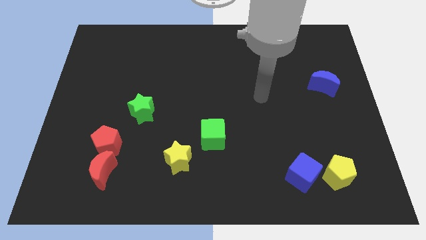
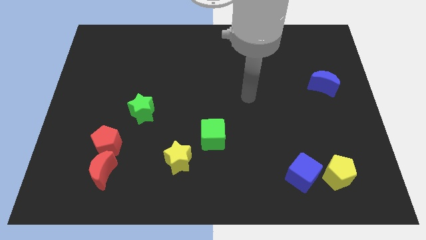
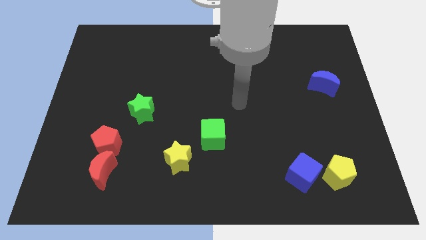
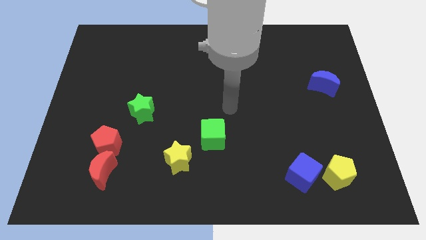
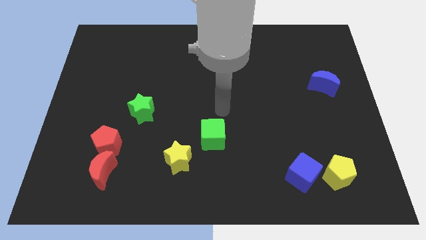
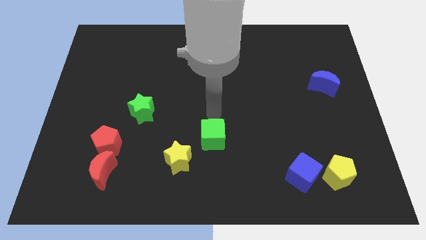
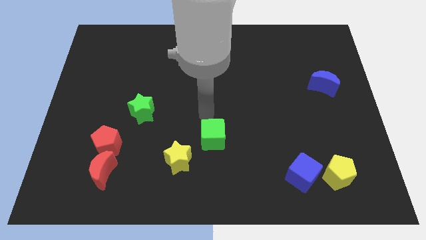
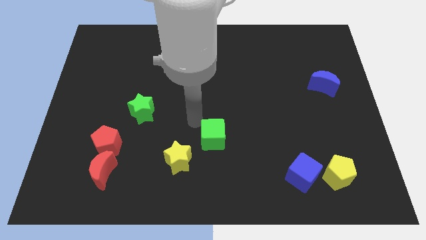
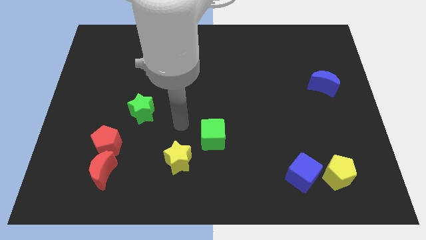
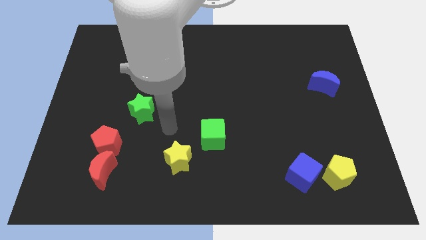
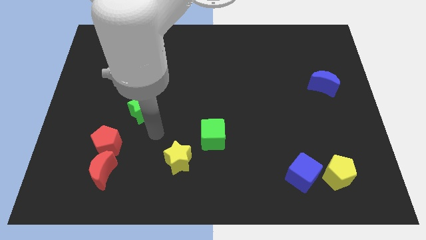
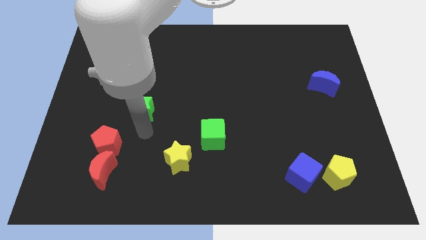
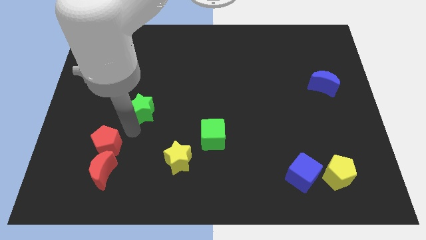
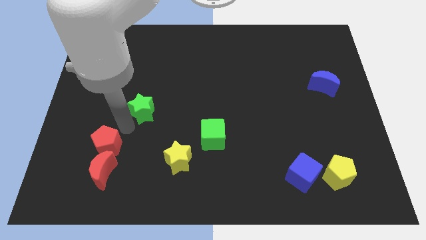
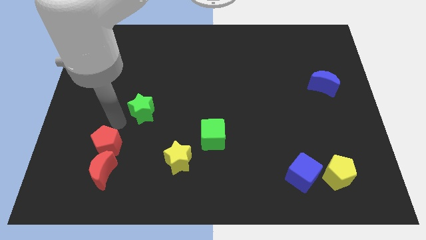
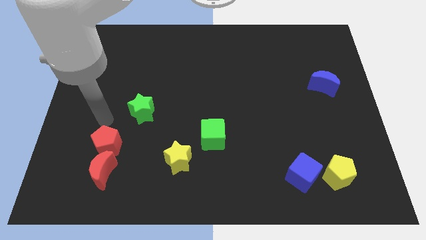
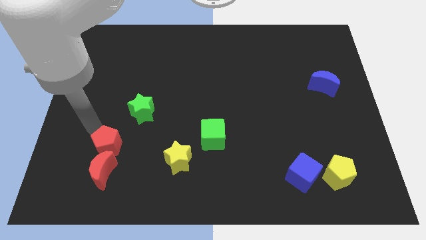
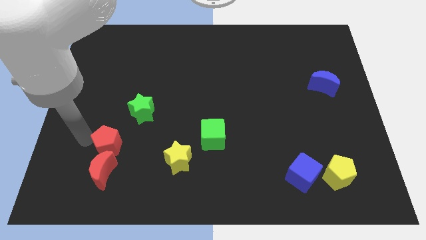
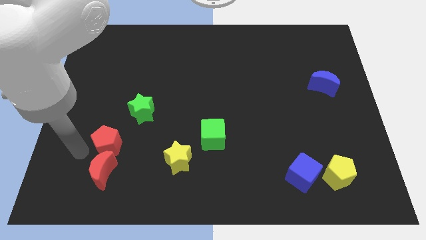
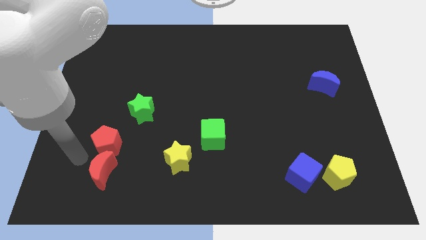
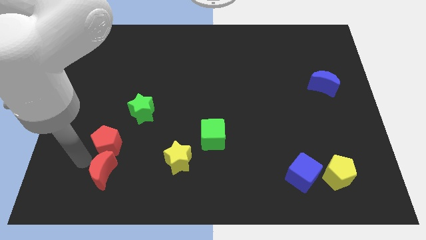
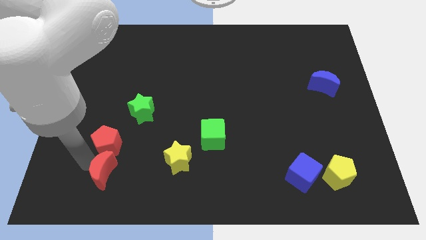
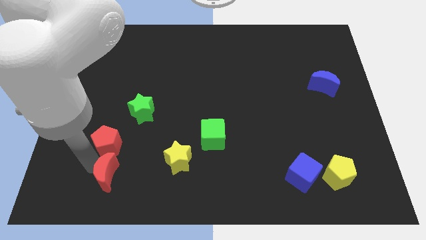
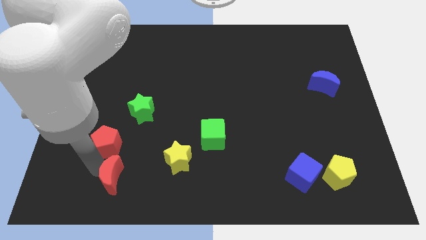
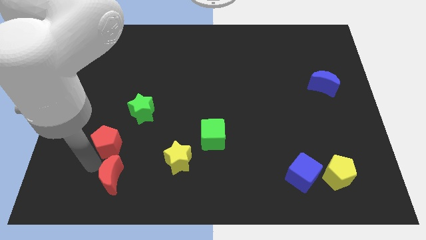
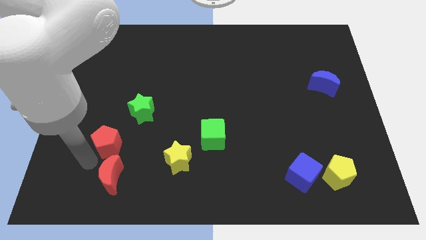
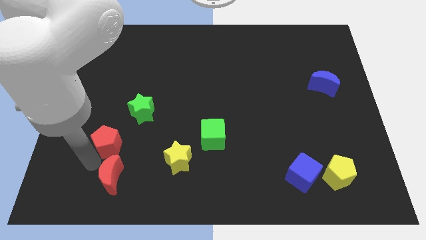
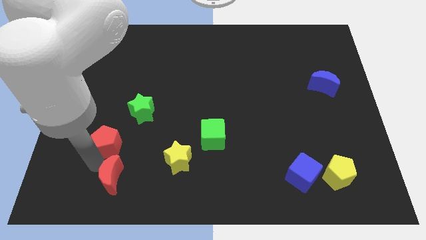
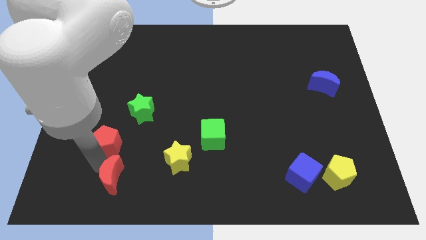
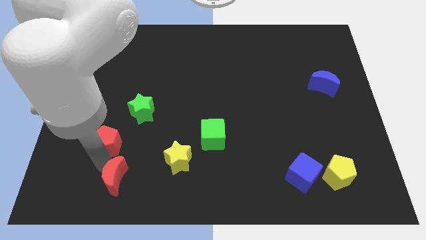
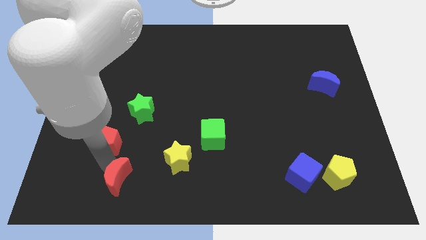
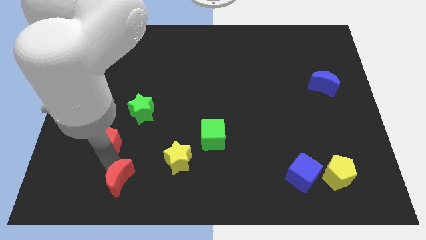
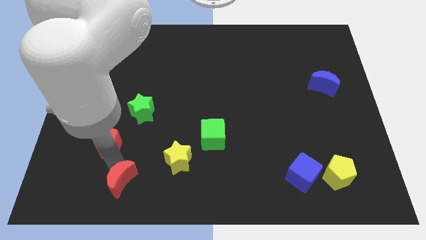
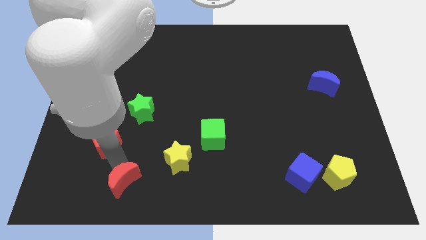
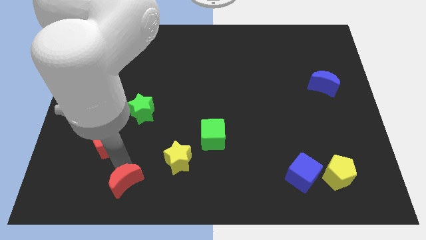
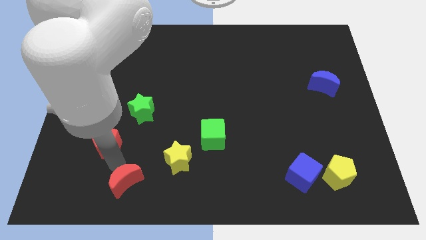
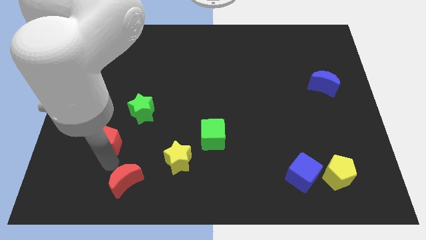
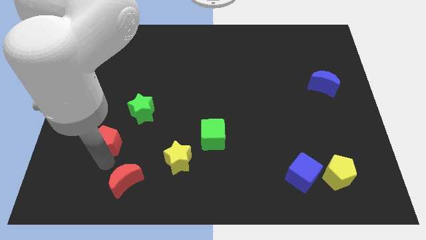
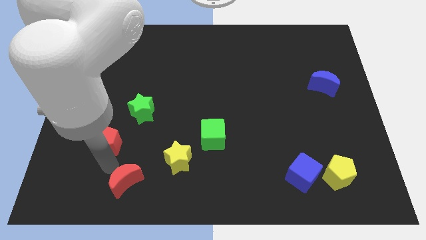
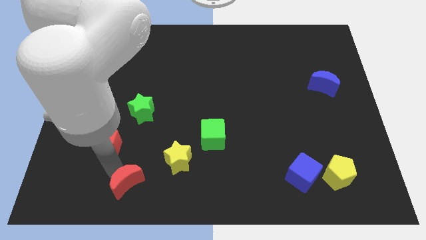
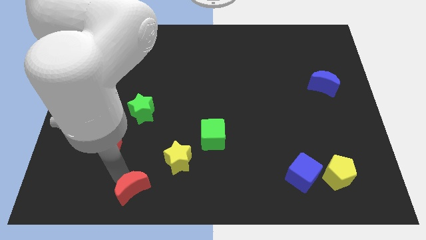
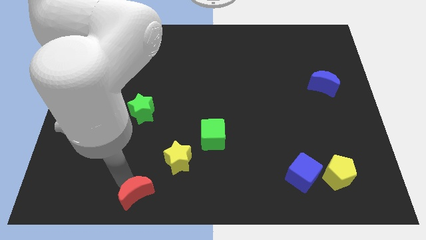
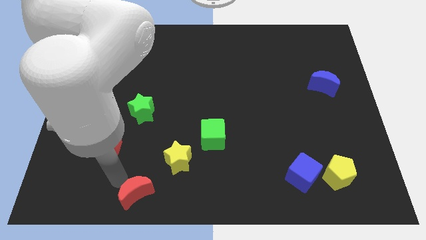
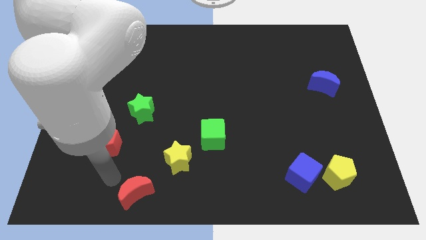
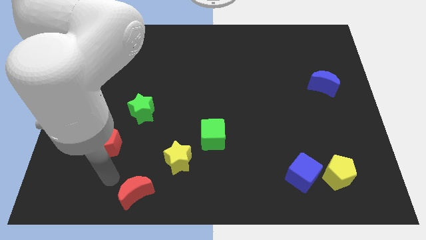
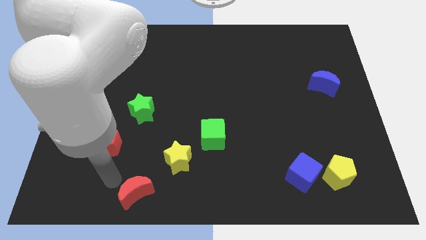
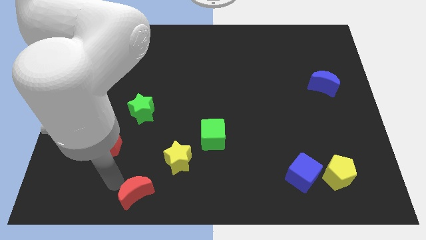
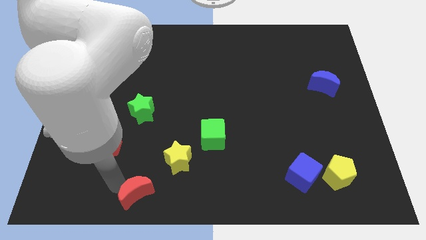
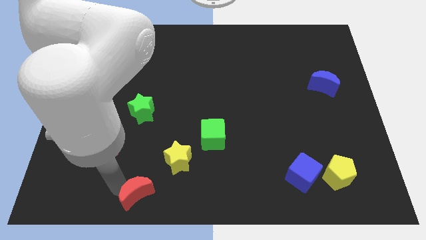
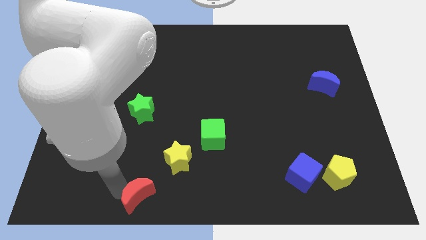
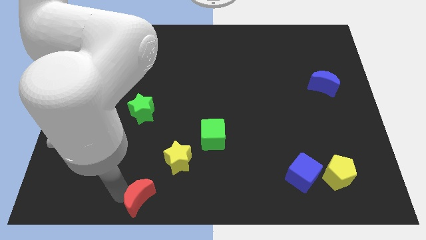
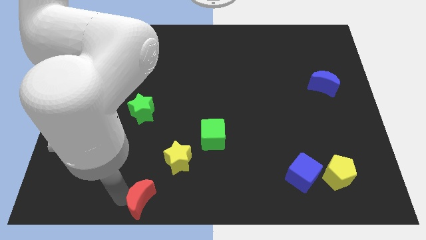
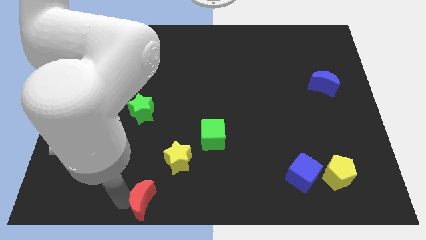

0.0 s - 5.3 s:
slide the red moon to the bottom side

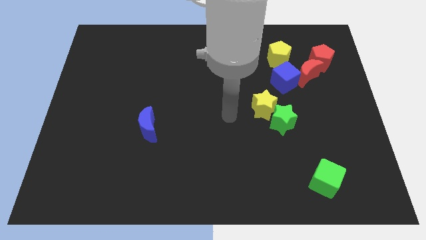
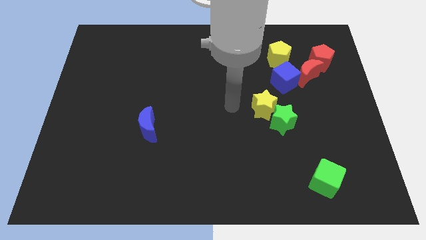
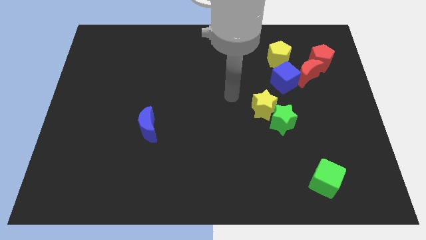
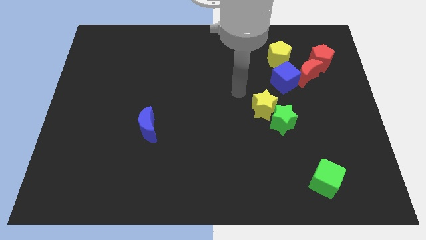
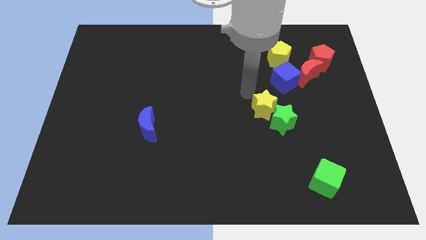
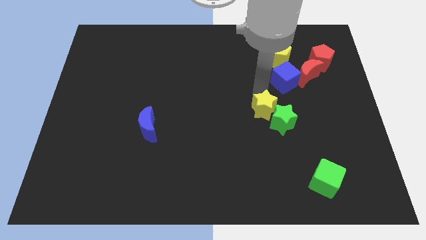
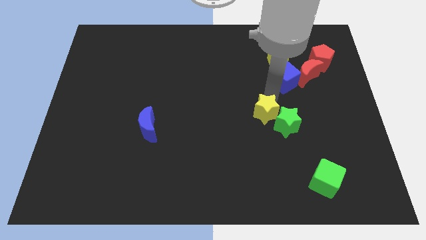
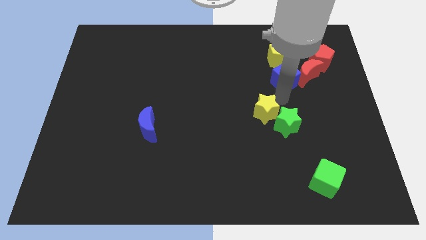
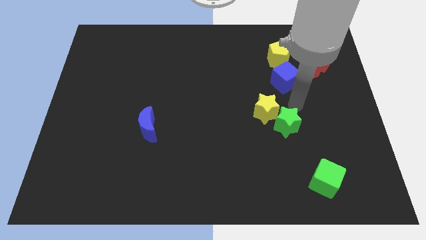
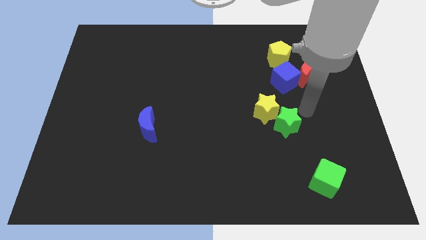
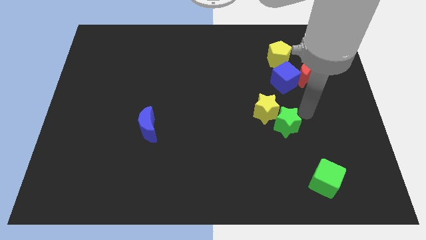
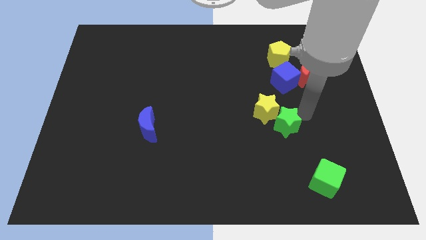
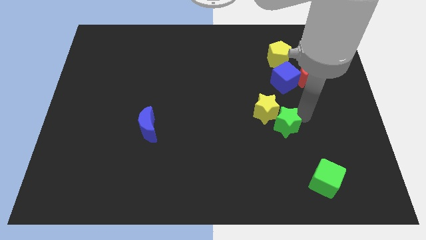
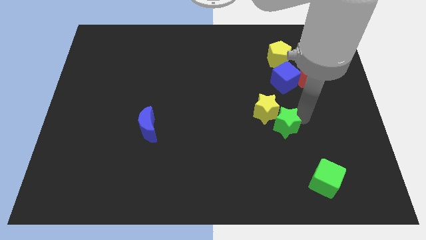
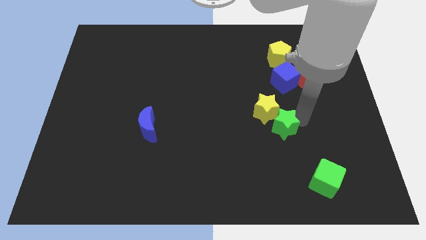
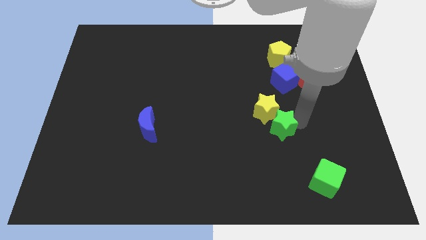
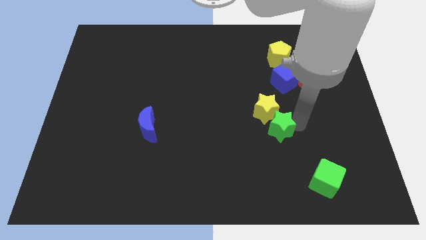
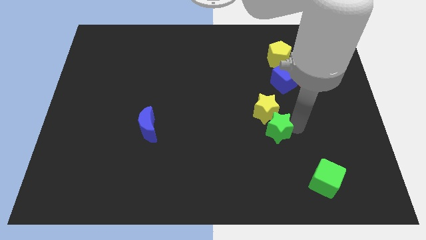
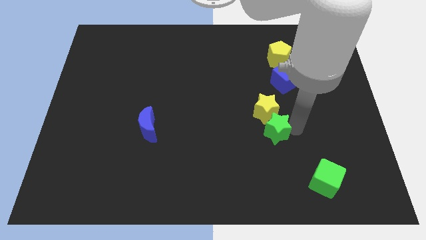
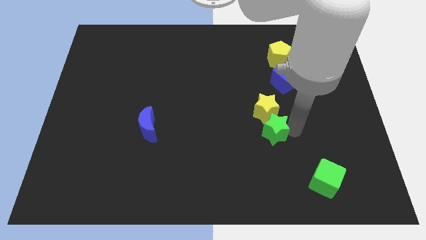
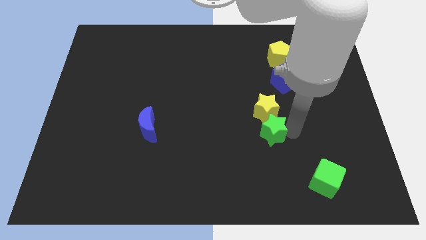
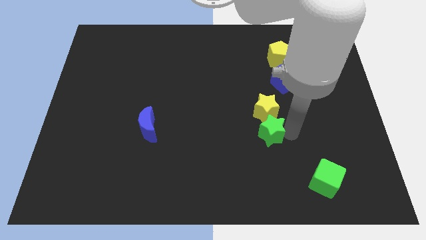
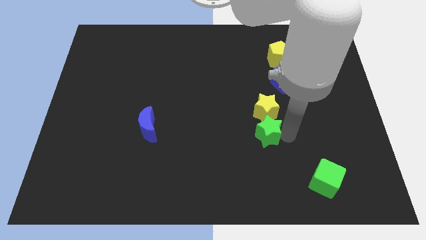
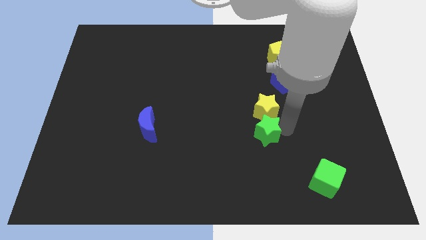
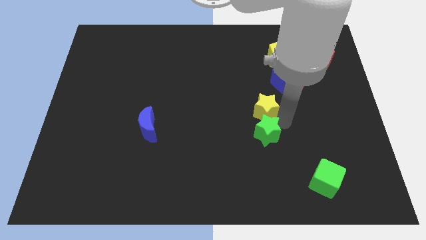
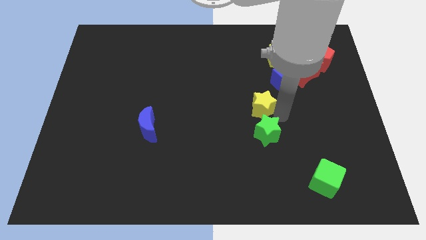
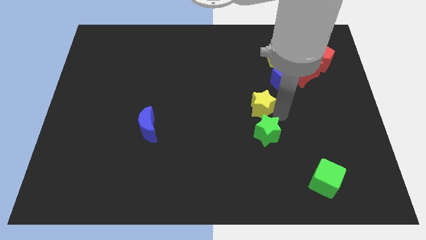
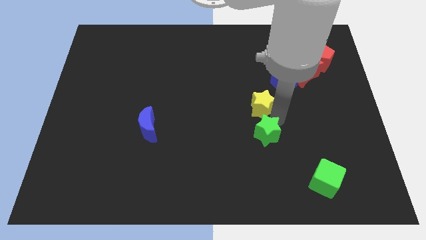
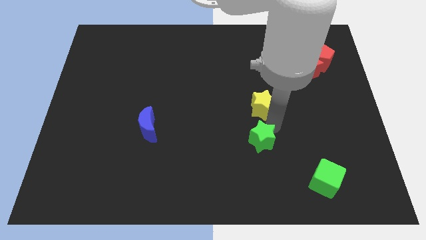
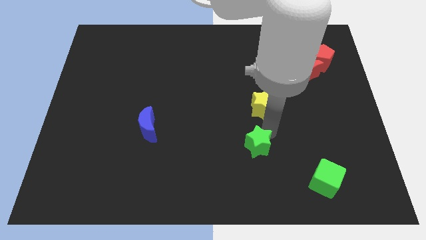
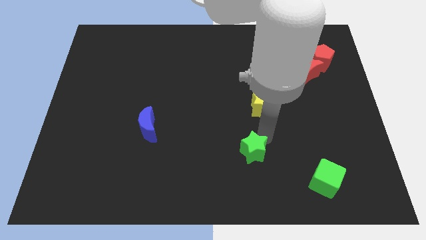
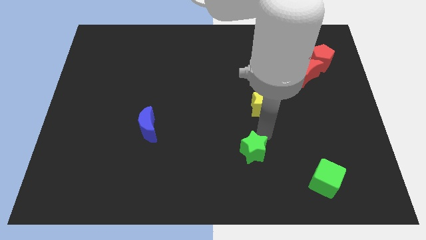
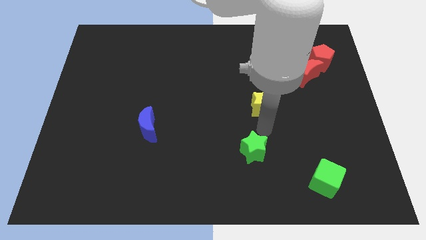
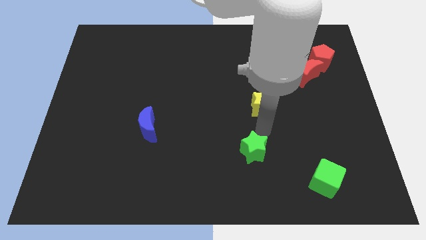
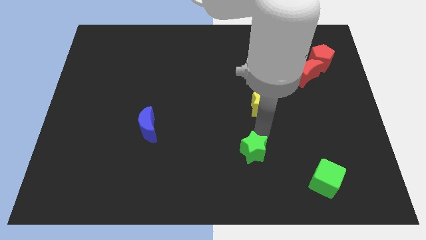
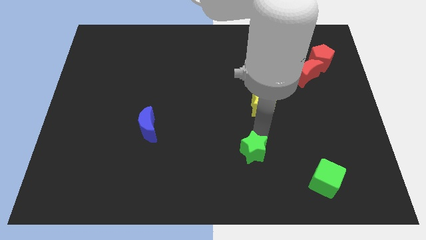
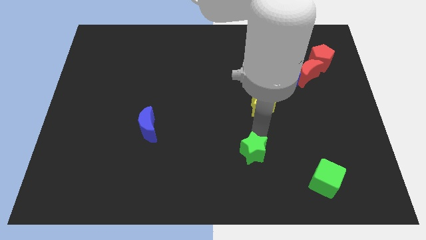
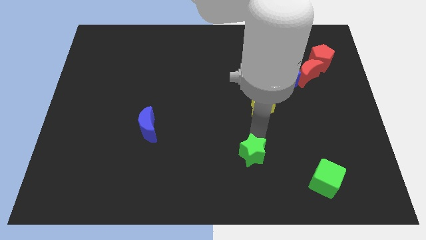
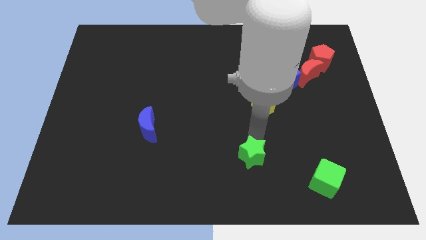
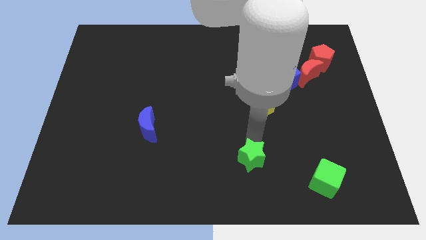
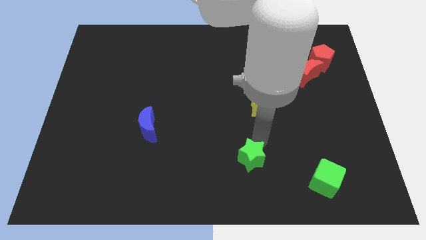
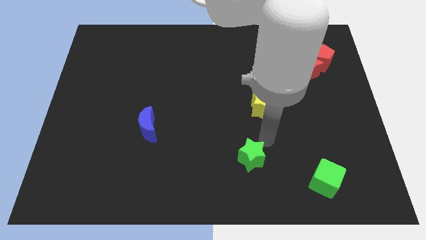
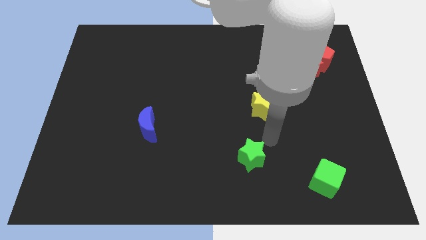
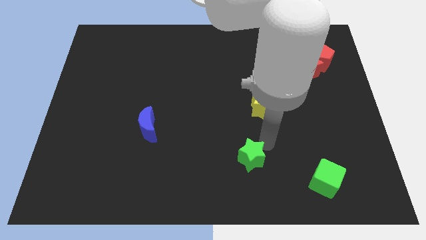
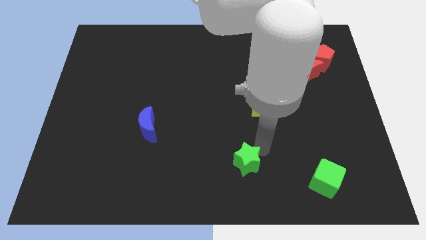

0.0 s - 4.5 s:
slide the green star to the bottom
